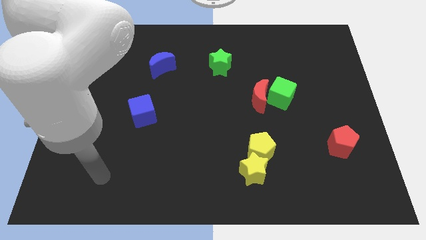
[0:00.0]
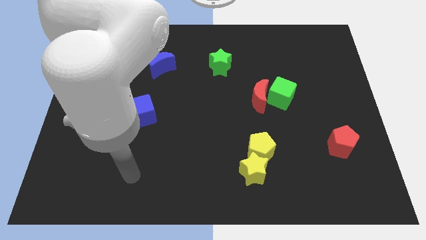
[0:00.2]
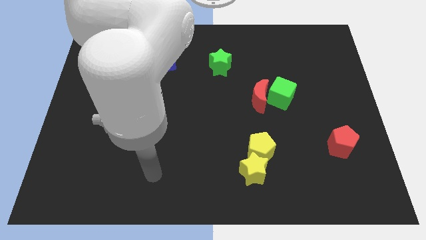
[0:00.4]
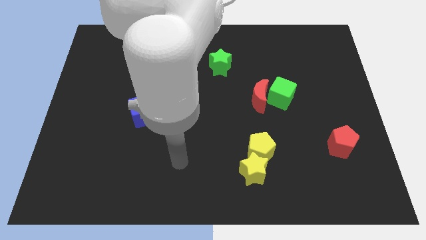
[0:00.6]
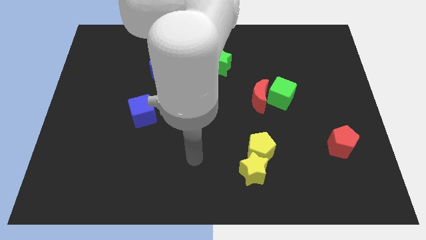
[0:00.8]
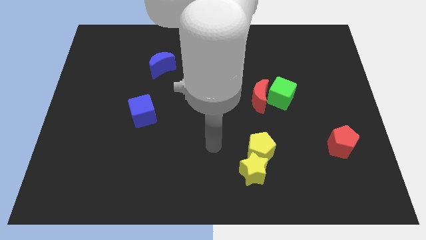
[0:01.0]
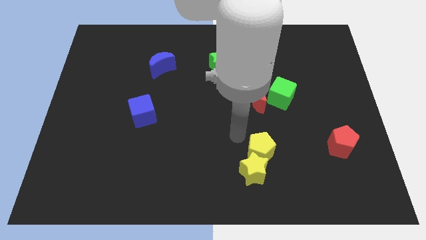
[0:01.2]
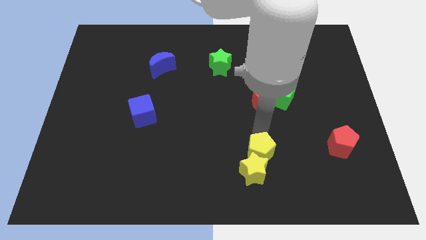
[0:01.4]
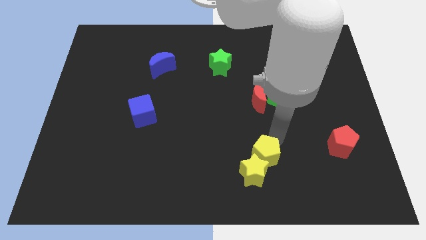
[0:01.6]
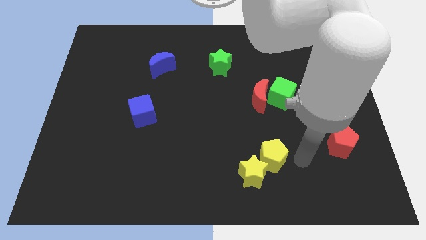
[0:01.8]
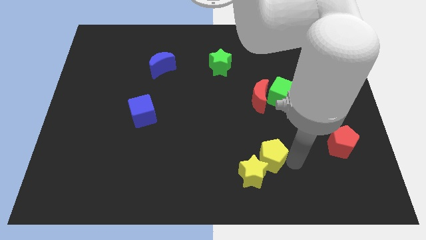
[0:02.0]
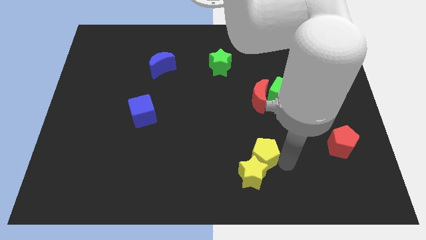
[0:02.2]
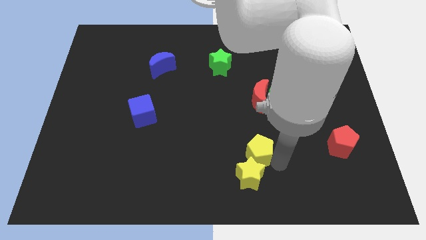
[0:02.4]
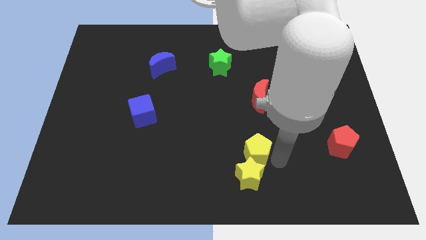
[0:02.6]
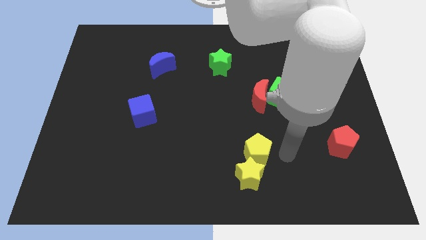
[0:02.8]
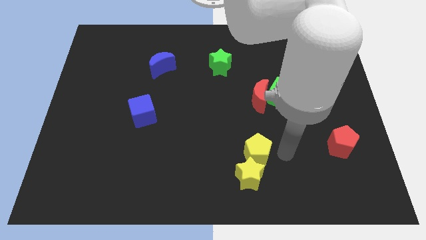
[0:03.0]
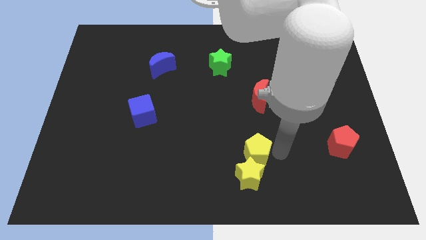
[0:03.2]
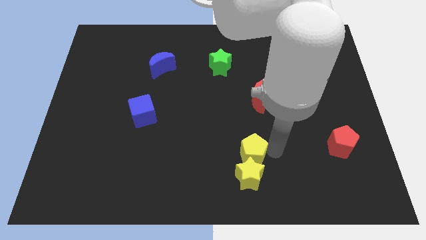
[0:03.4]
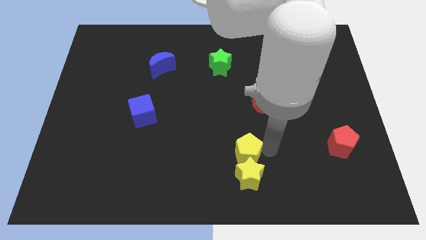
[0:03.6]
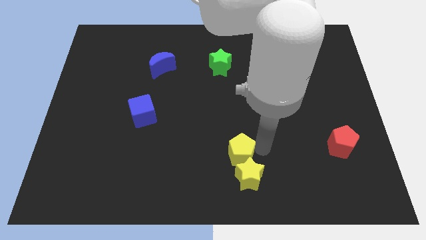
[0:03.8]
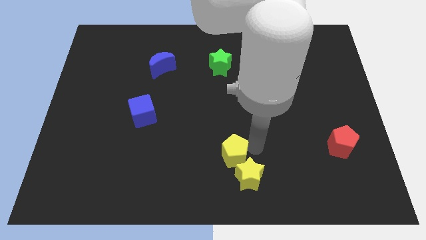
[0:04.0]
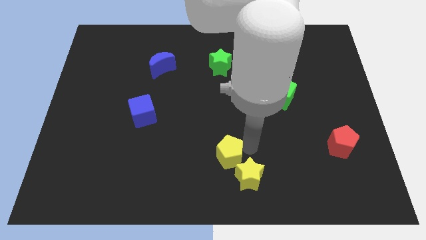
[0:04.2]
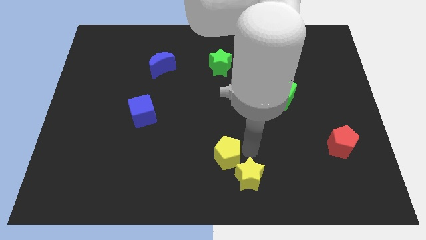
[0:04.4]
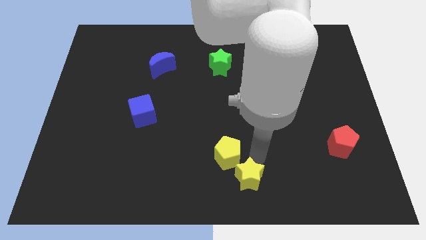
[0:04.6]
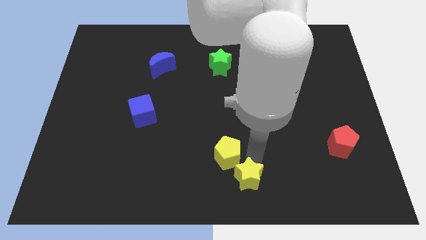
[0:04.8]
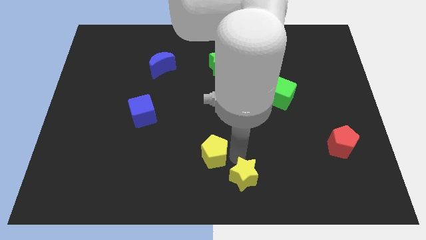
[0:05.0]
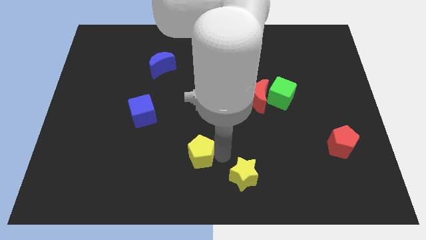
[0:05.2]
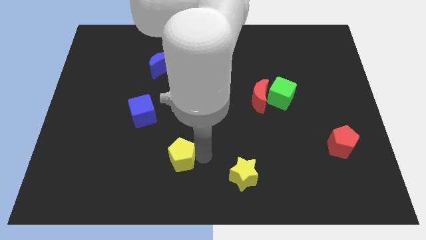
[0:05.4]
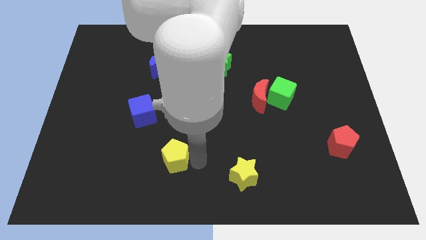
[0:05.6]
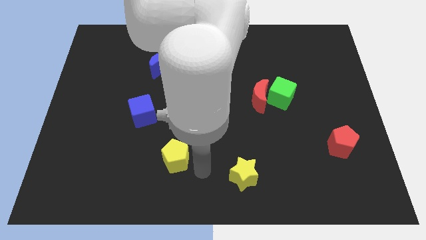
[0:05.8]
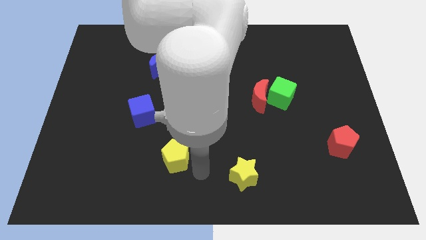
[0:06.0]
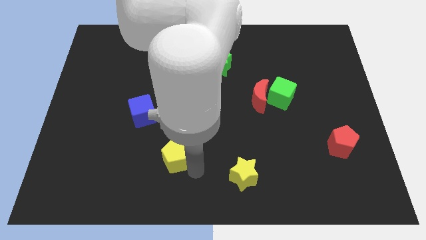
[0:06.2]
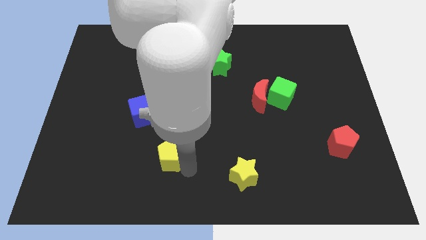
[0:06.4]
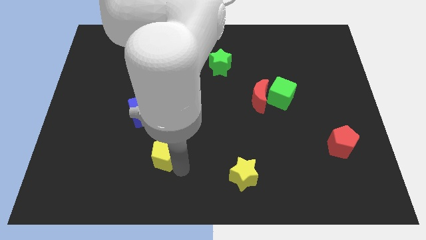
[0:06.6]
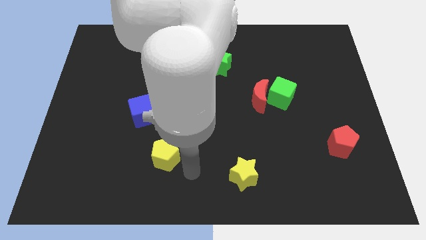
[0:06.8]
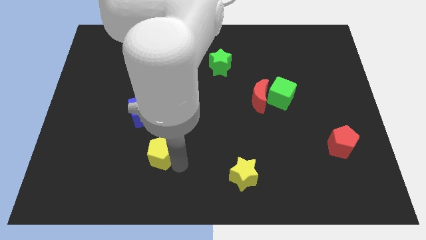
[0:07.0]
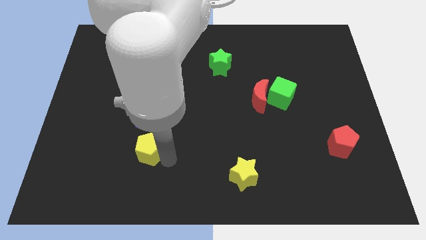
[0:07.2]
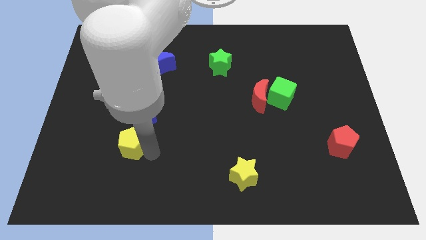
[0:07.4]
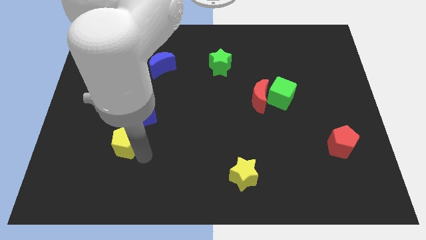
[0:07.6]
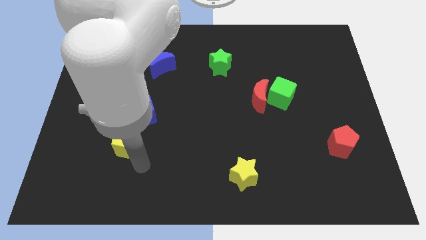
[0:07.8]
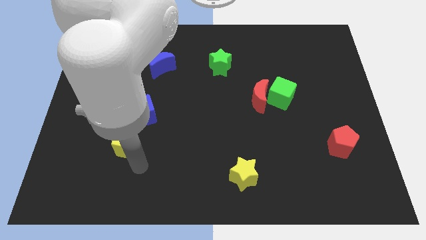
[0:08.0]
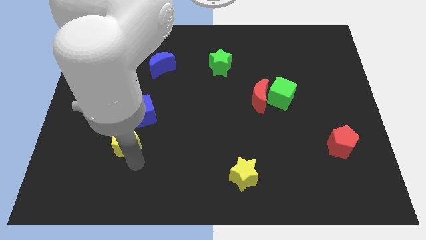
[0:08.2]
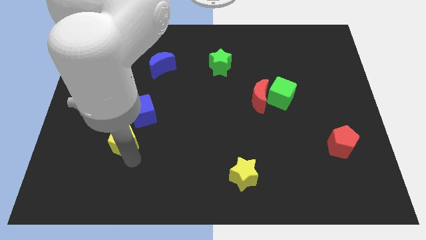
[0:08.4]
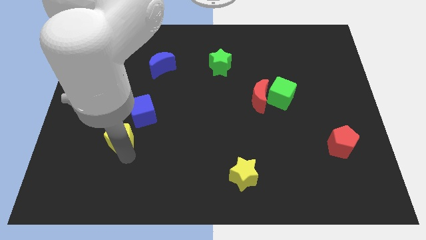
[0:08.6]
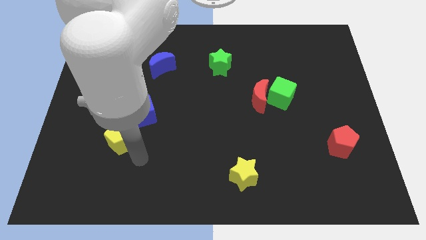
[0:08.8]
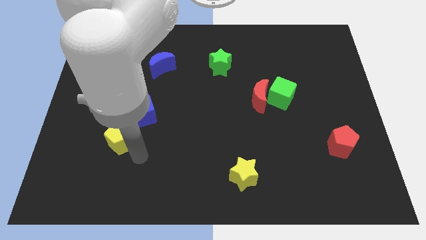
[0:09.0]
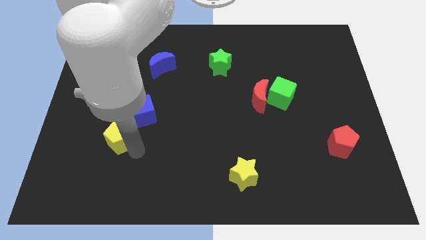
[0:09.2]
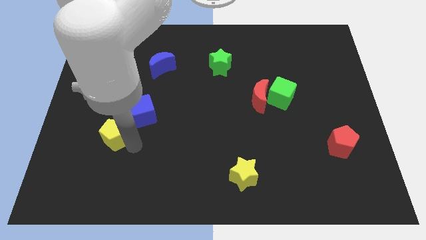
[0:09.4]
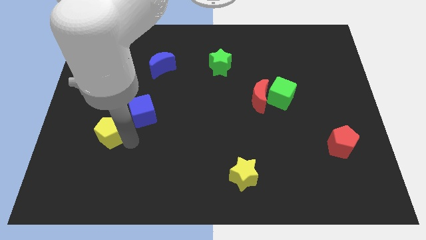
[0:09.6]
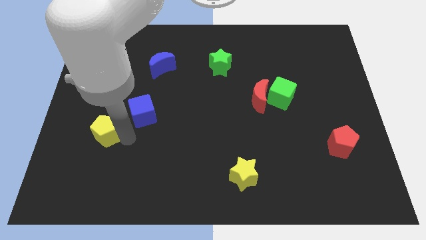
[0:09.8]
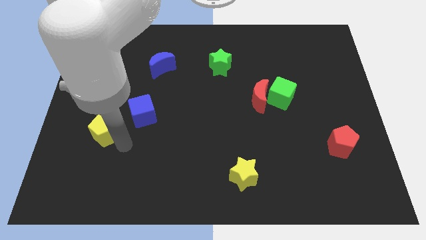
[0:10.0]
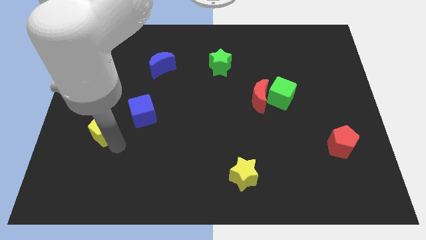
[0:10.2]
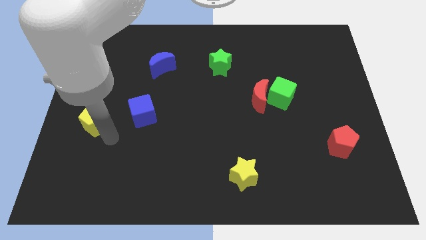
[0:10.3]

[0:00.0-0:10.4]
push the yellow pentagon to the left side

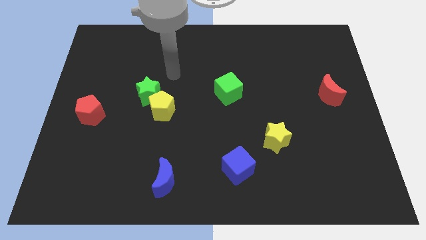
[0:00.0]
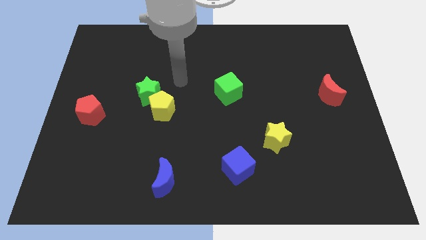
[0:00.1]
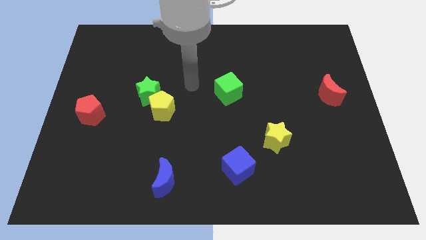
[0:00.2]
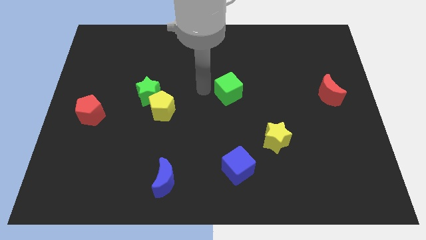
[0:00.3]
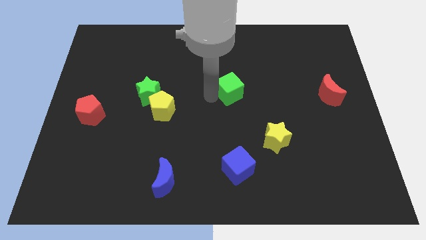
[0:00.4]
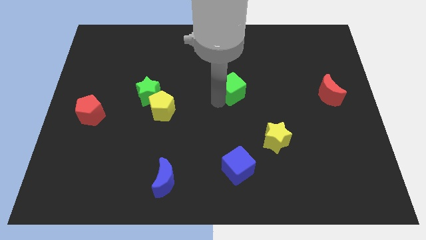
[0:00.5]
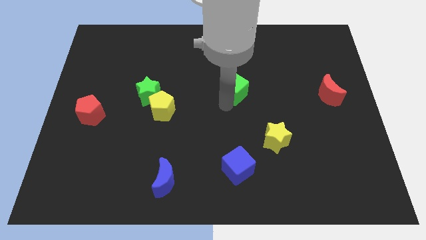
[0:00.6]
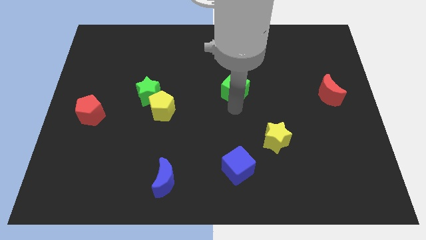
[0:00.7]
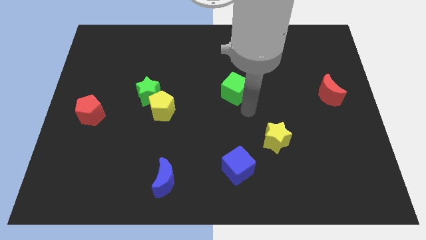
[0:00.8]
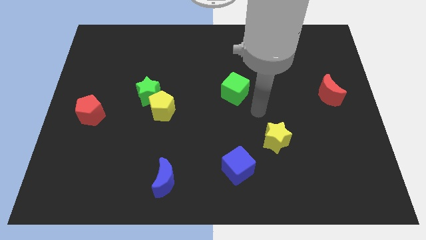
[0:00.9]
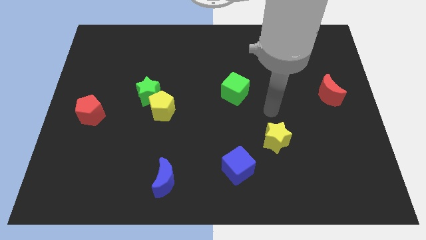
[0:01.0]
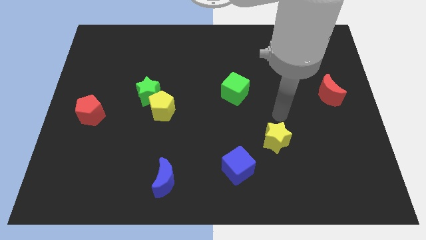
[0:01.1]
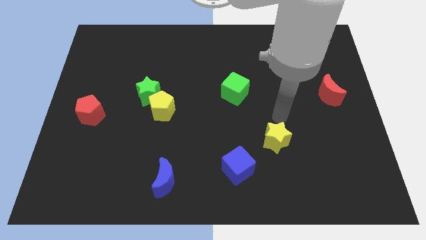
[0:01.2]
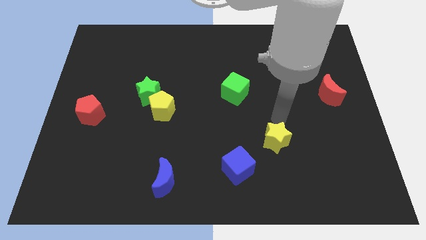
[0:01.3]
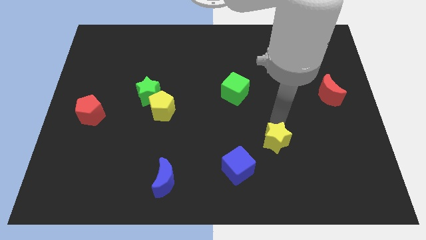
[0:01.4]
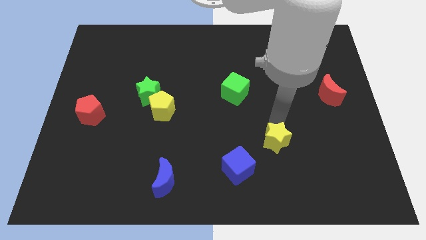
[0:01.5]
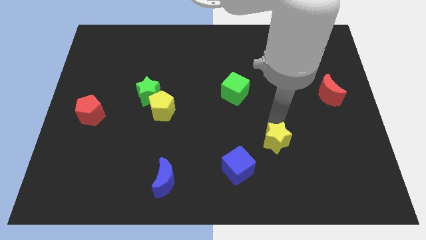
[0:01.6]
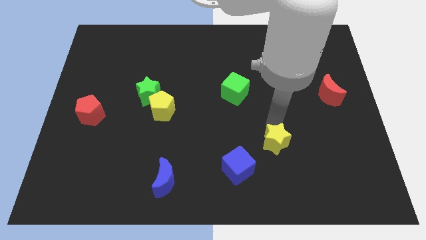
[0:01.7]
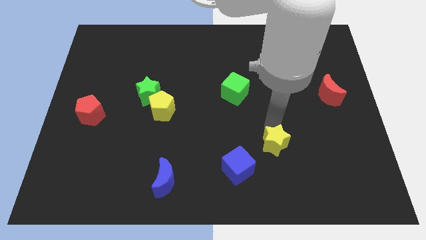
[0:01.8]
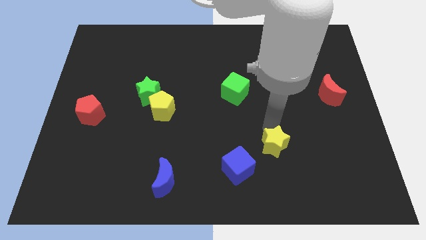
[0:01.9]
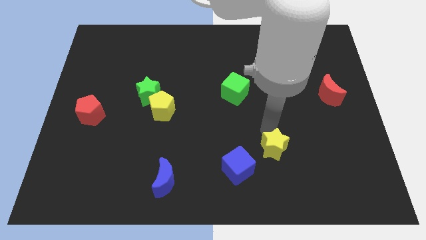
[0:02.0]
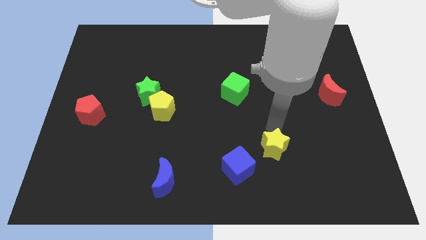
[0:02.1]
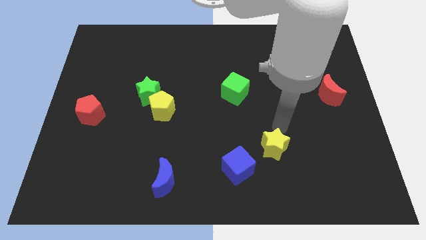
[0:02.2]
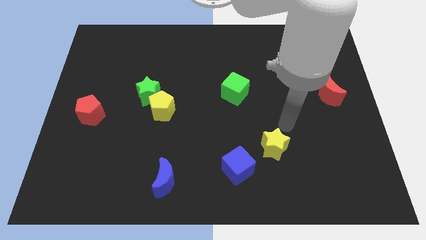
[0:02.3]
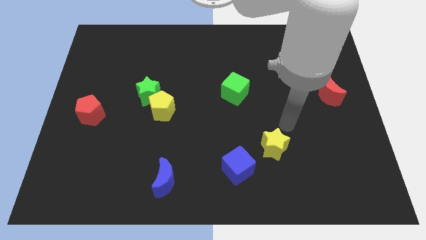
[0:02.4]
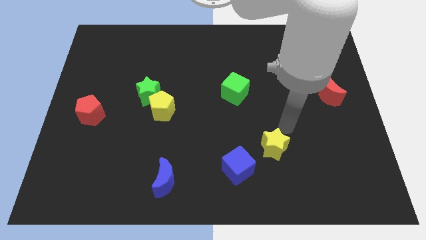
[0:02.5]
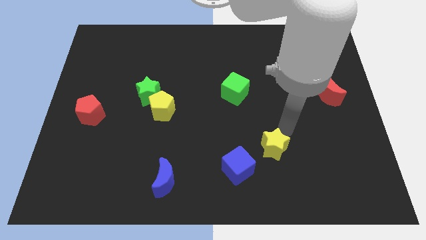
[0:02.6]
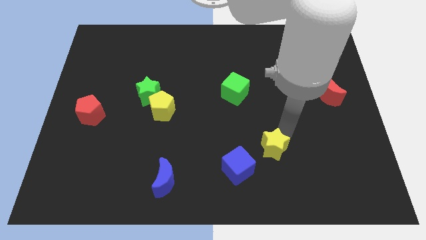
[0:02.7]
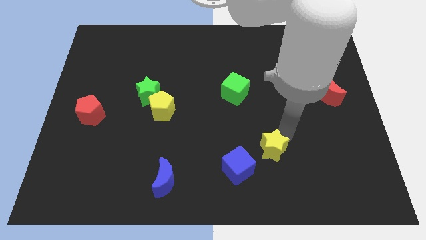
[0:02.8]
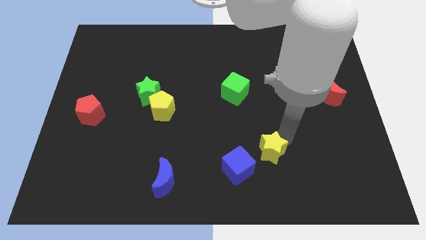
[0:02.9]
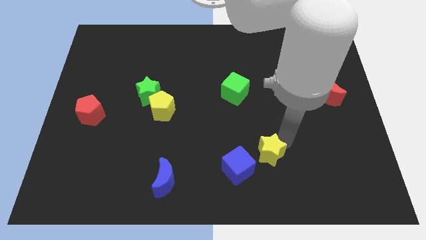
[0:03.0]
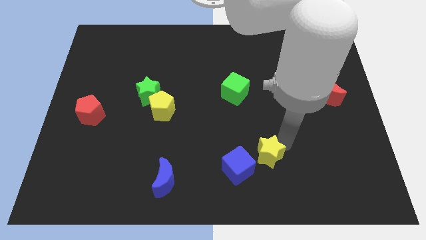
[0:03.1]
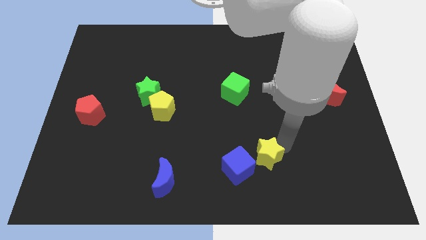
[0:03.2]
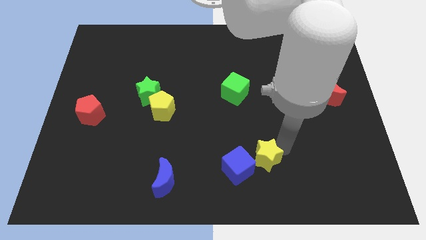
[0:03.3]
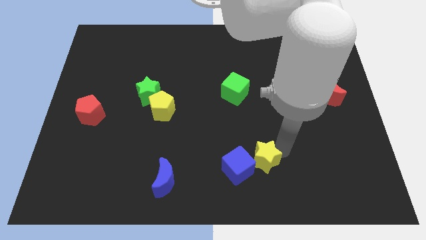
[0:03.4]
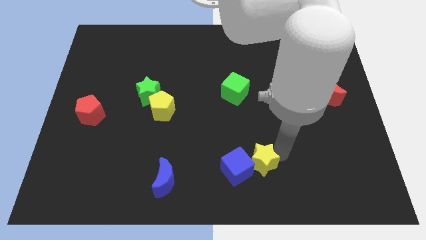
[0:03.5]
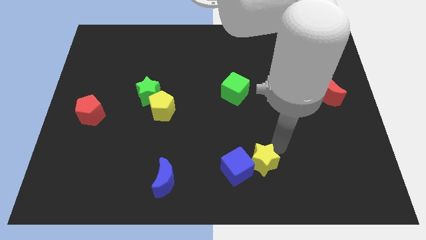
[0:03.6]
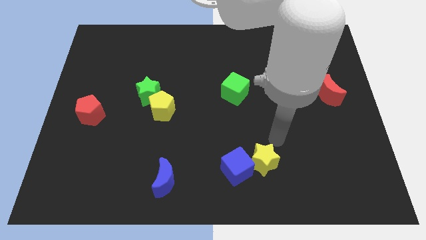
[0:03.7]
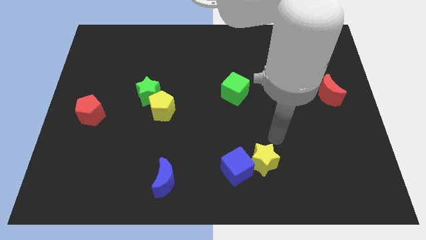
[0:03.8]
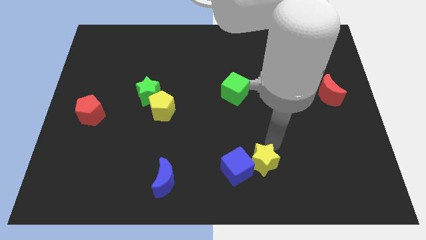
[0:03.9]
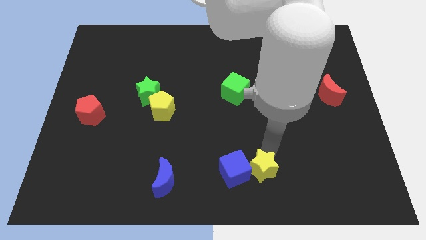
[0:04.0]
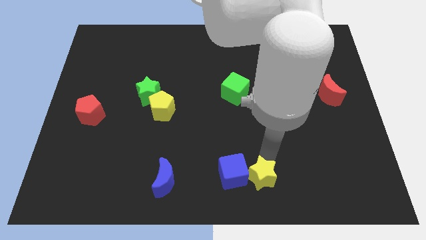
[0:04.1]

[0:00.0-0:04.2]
put the yellow star to the bottom side
